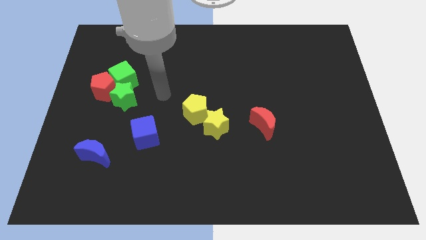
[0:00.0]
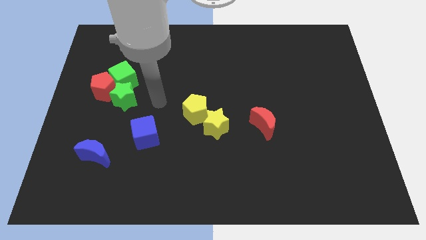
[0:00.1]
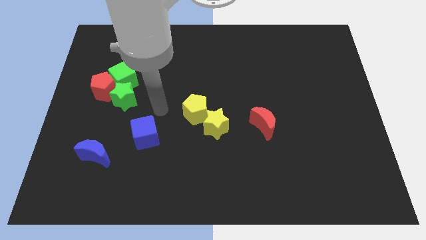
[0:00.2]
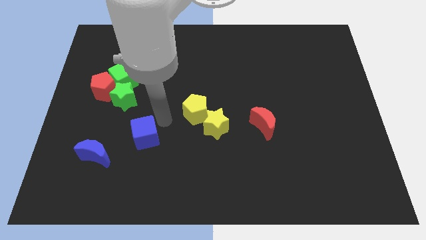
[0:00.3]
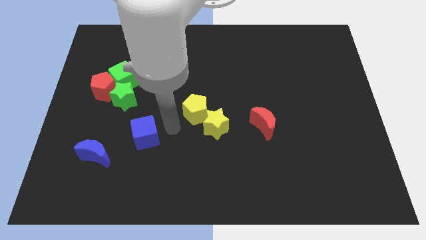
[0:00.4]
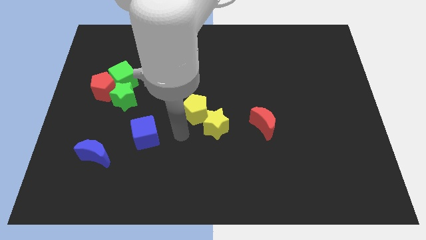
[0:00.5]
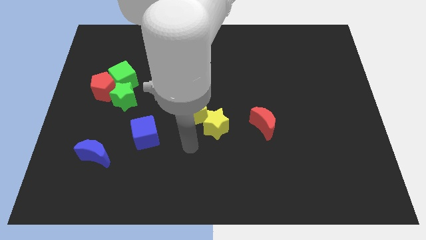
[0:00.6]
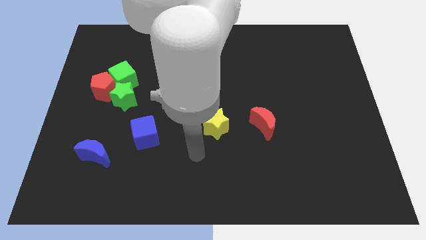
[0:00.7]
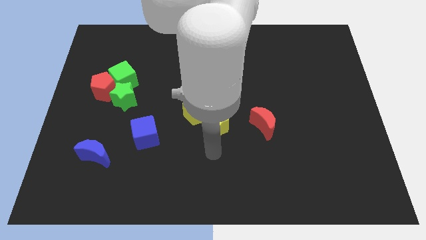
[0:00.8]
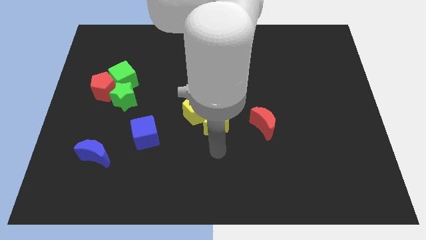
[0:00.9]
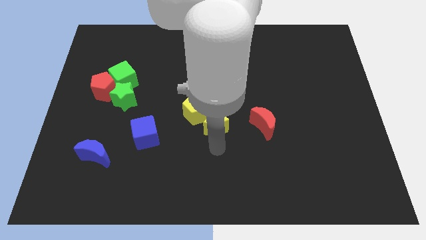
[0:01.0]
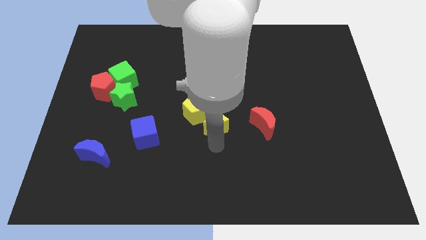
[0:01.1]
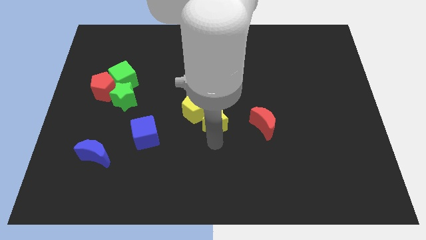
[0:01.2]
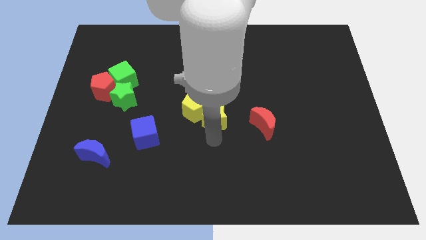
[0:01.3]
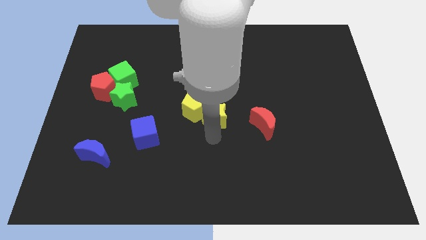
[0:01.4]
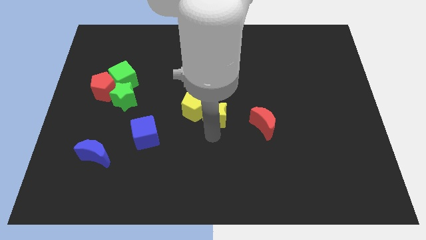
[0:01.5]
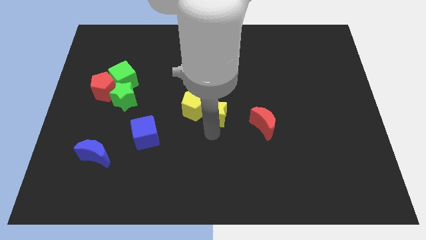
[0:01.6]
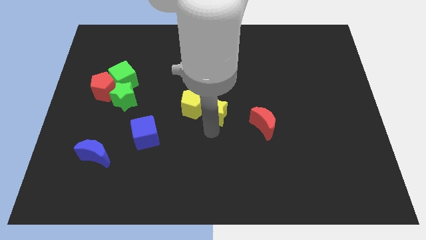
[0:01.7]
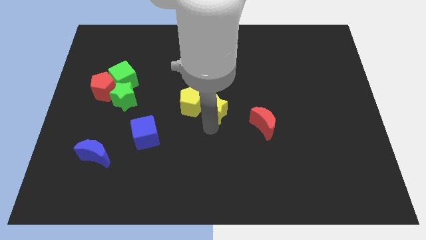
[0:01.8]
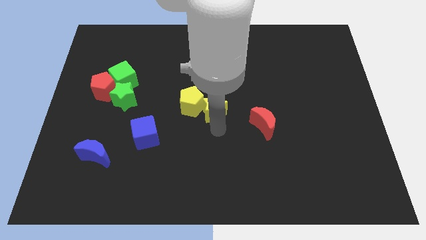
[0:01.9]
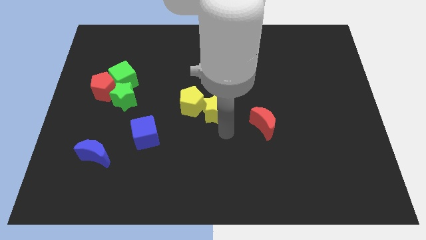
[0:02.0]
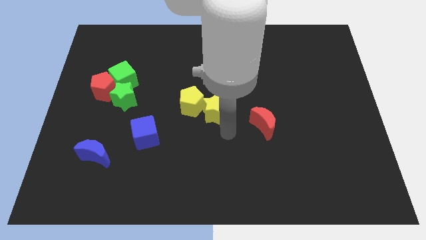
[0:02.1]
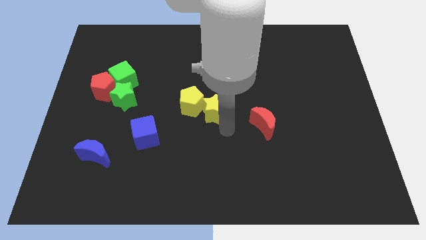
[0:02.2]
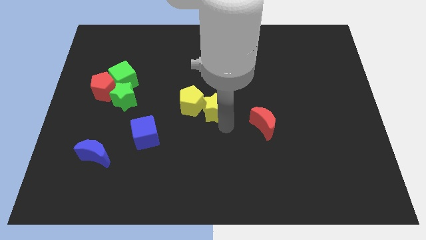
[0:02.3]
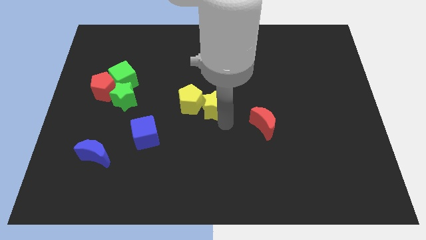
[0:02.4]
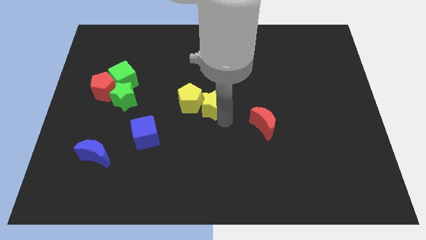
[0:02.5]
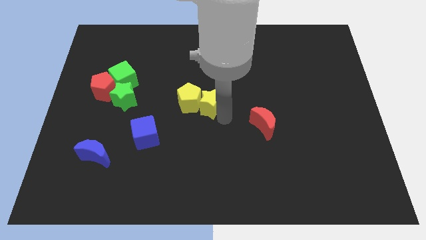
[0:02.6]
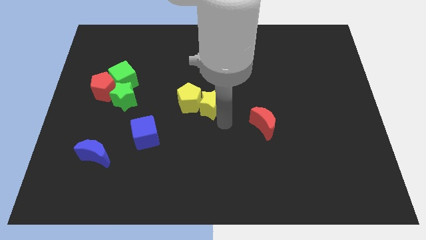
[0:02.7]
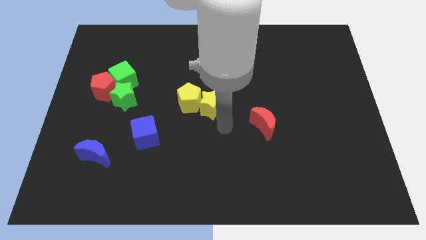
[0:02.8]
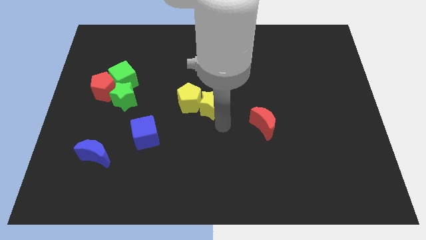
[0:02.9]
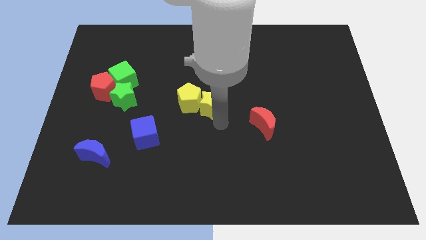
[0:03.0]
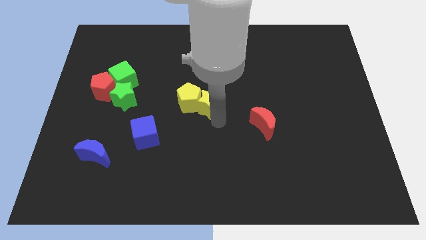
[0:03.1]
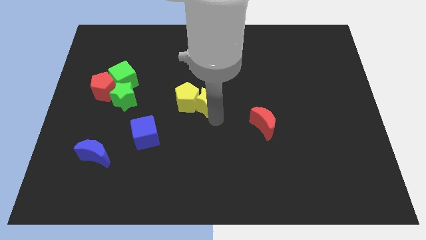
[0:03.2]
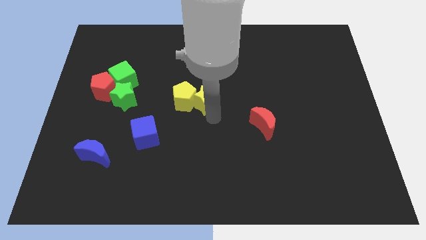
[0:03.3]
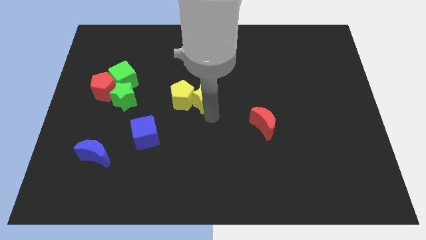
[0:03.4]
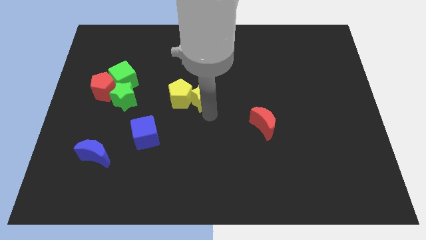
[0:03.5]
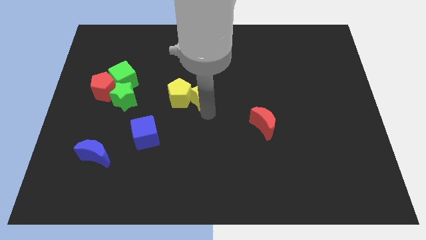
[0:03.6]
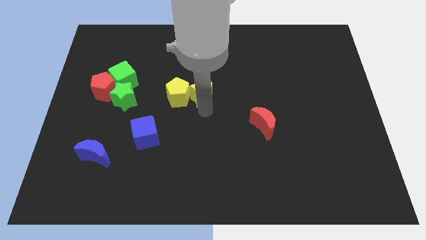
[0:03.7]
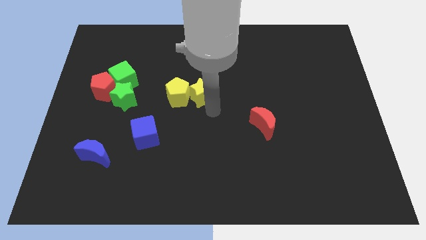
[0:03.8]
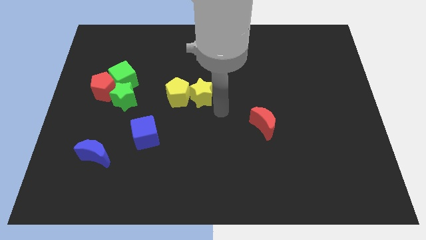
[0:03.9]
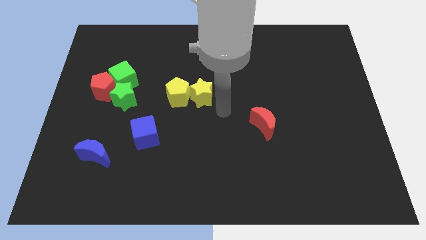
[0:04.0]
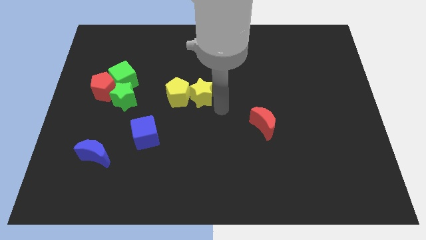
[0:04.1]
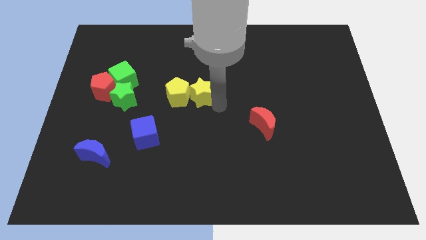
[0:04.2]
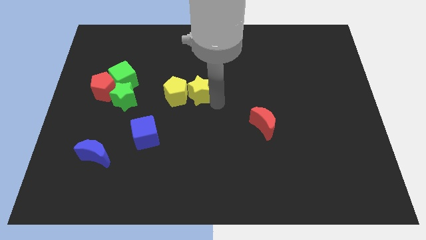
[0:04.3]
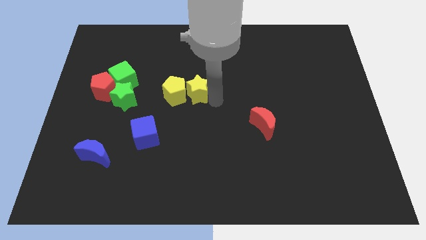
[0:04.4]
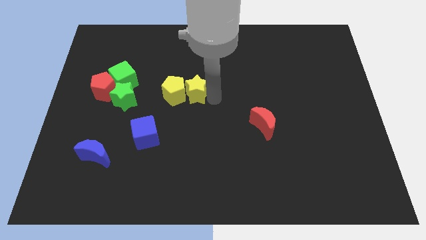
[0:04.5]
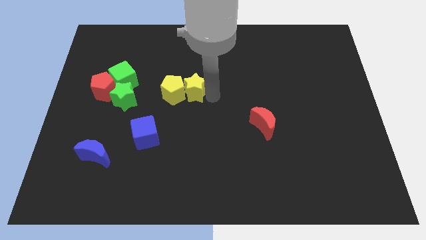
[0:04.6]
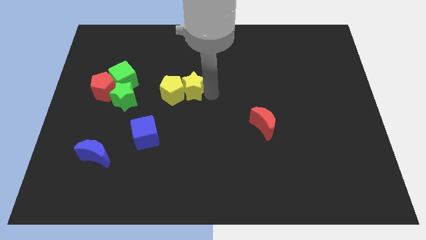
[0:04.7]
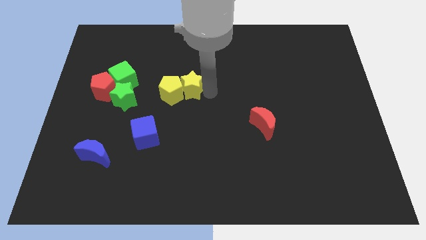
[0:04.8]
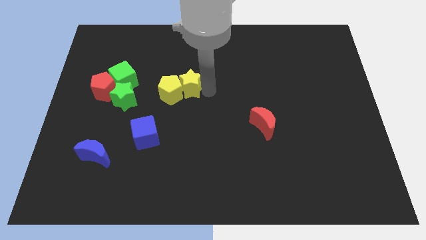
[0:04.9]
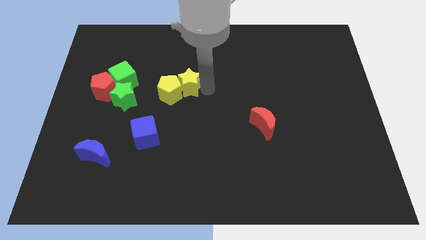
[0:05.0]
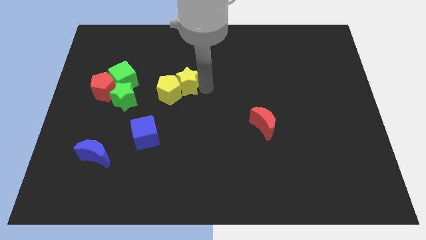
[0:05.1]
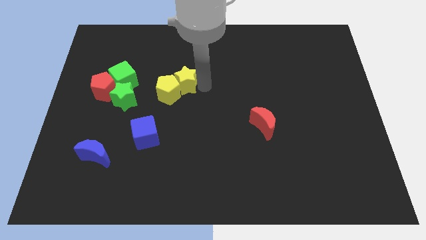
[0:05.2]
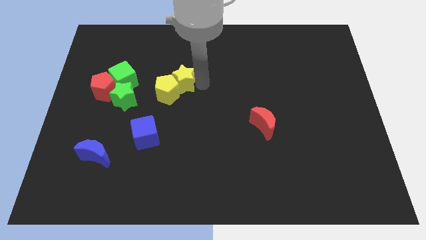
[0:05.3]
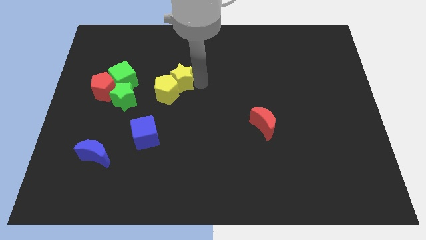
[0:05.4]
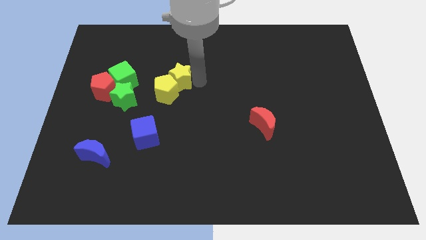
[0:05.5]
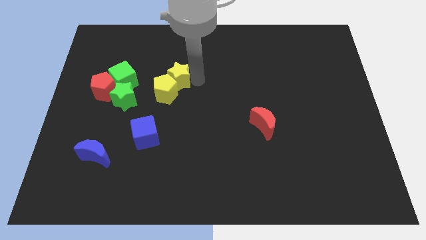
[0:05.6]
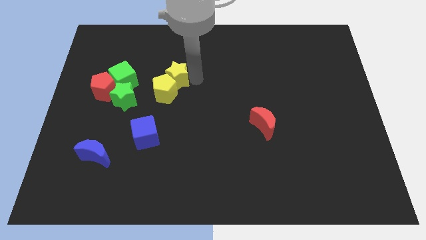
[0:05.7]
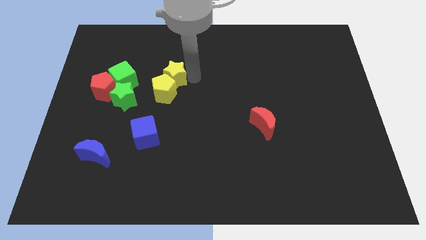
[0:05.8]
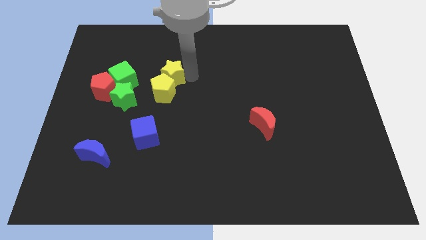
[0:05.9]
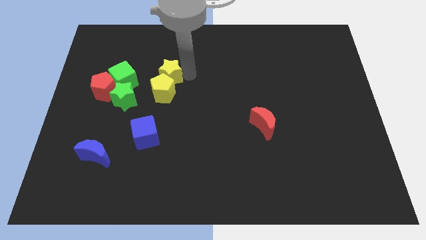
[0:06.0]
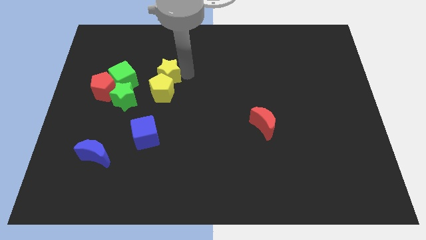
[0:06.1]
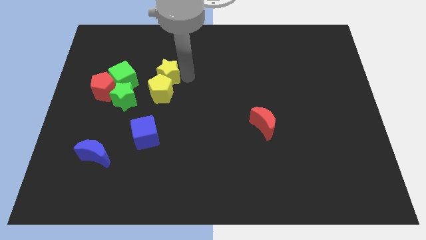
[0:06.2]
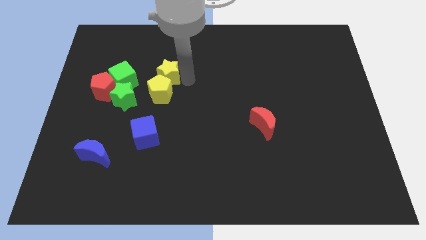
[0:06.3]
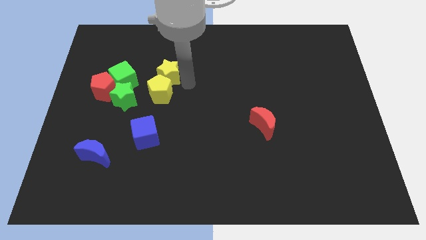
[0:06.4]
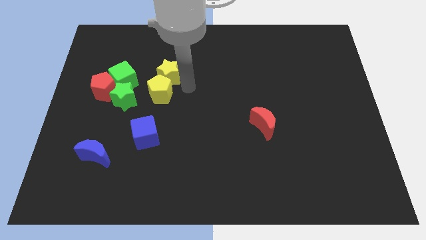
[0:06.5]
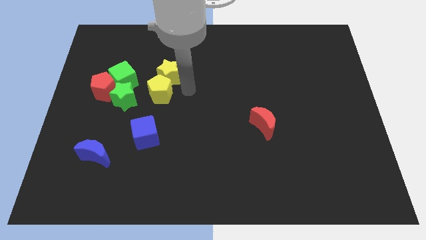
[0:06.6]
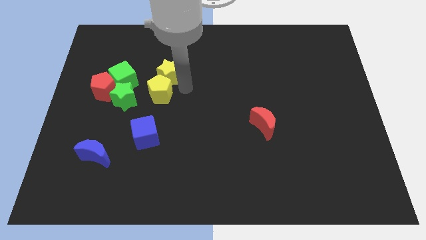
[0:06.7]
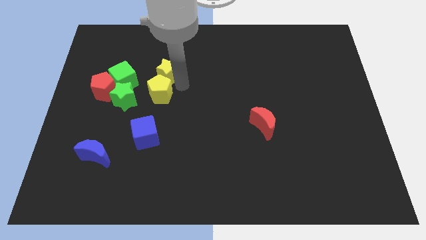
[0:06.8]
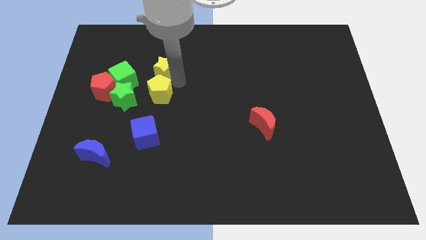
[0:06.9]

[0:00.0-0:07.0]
slide the yellow star up and then to the left

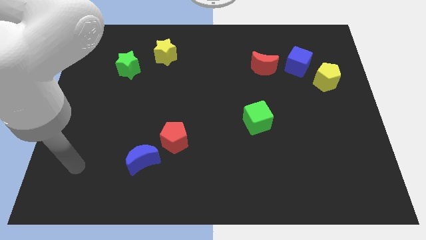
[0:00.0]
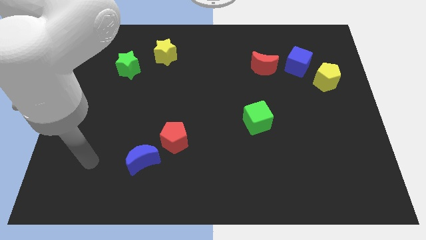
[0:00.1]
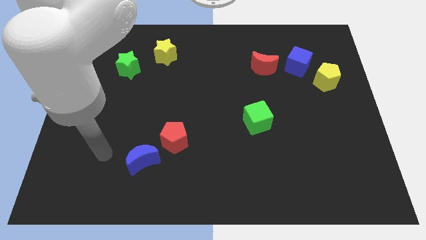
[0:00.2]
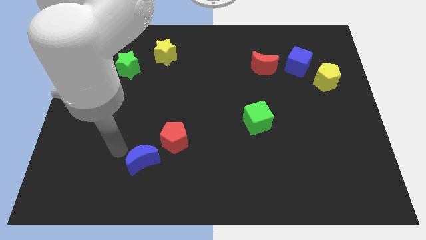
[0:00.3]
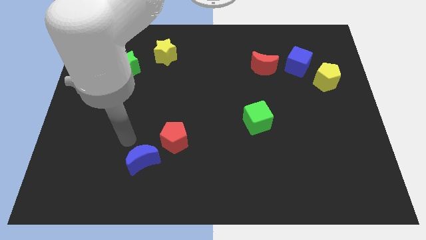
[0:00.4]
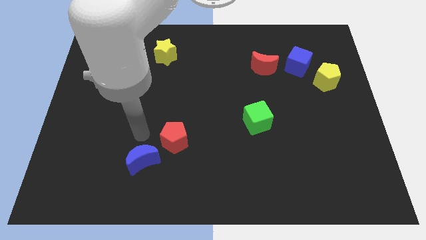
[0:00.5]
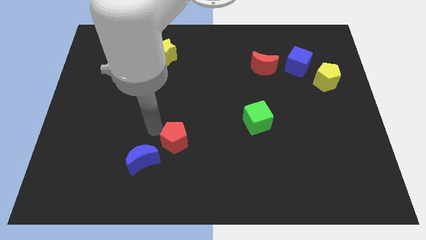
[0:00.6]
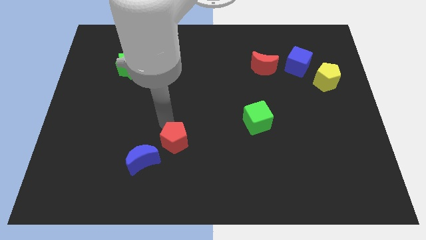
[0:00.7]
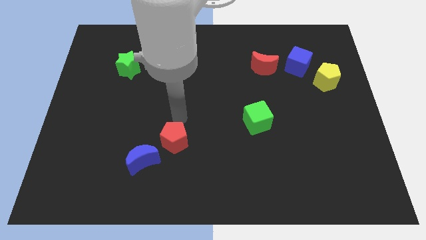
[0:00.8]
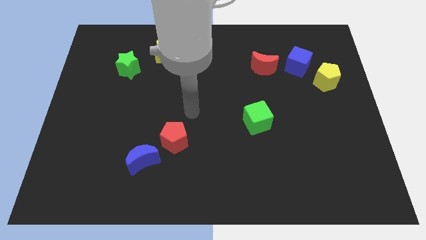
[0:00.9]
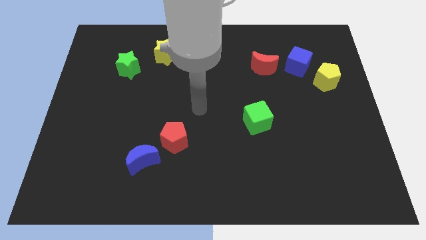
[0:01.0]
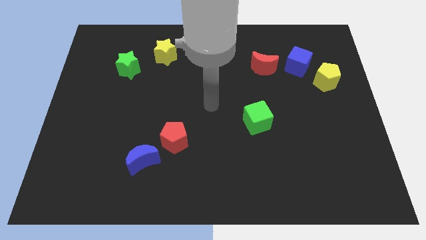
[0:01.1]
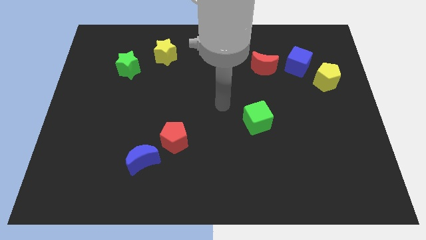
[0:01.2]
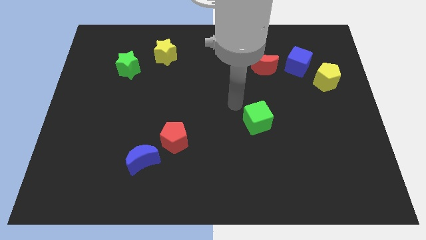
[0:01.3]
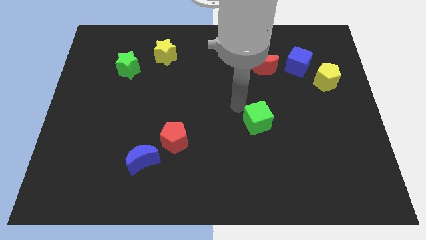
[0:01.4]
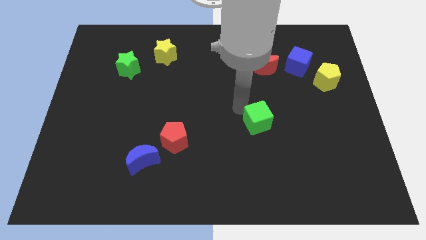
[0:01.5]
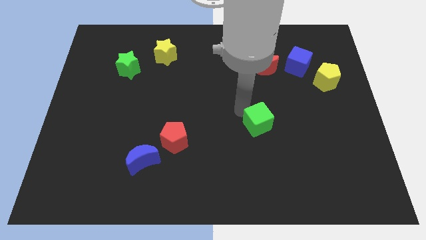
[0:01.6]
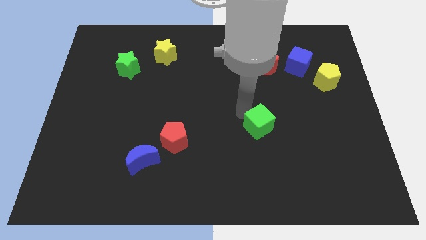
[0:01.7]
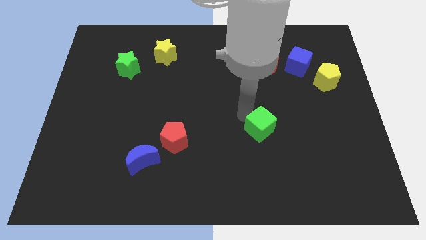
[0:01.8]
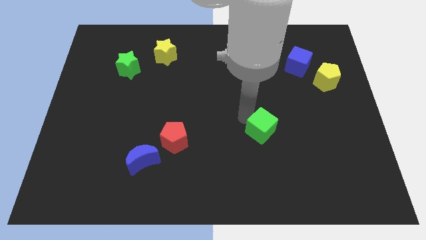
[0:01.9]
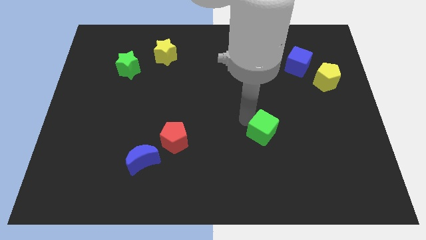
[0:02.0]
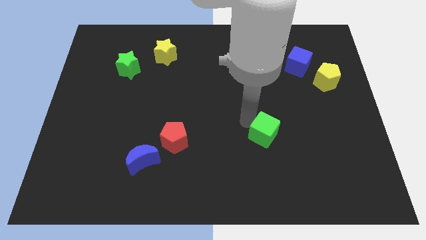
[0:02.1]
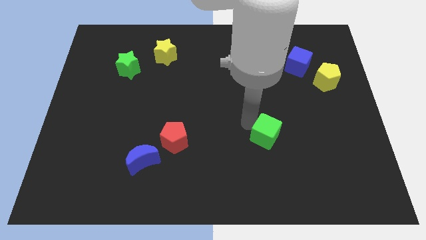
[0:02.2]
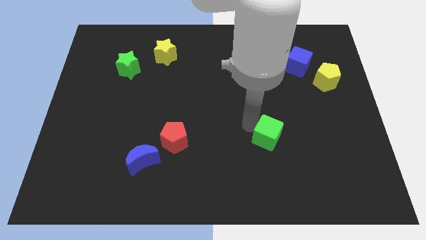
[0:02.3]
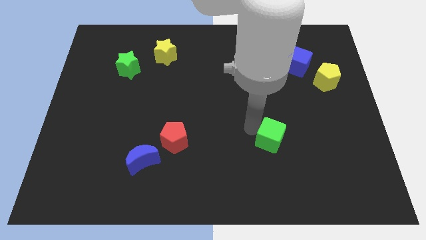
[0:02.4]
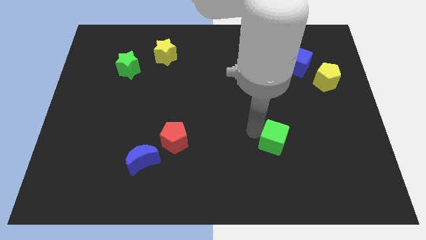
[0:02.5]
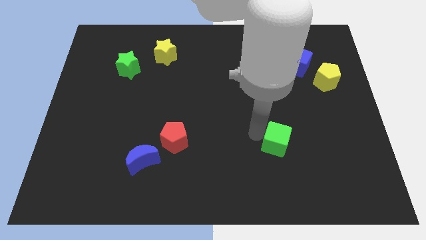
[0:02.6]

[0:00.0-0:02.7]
slide the green cube downwards and to the right a bit
